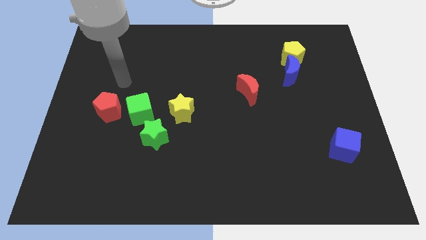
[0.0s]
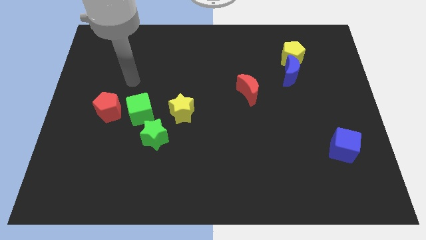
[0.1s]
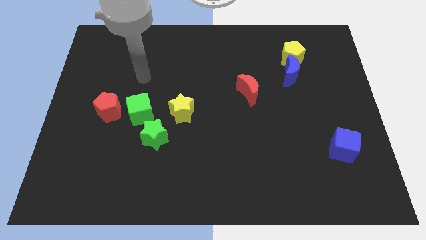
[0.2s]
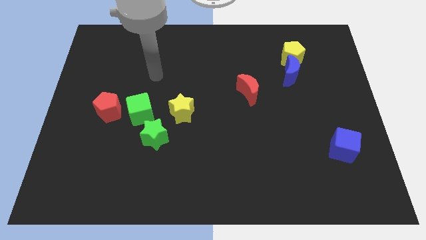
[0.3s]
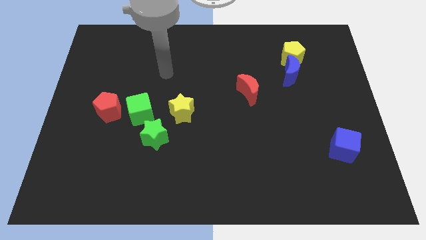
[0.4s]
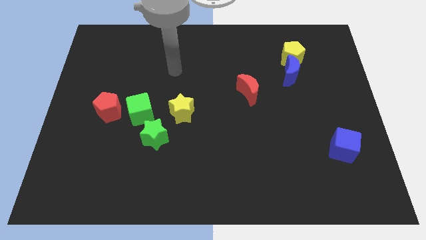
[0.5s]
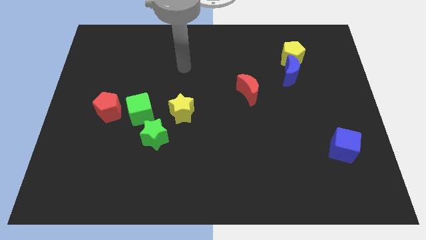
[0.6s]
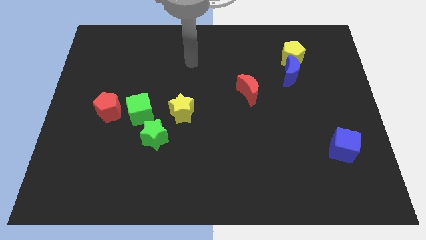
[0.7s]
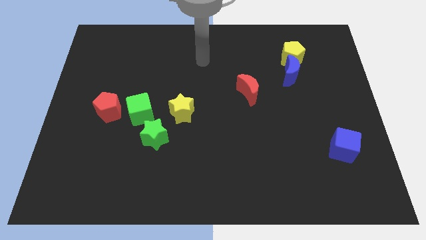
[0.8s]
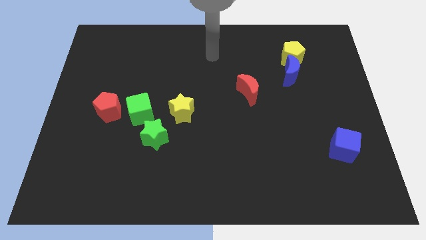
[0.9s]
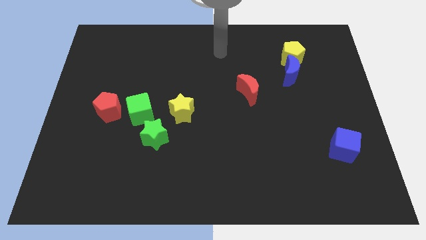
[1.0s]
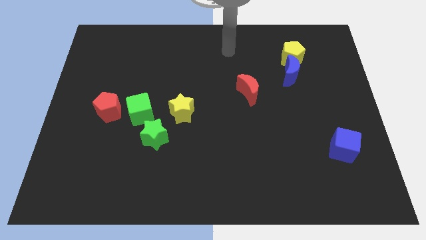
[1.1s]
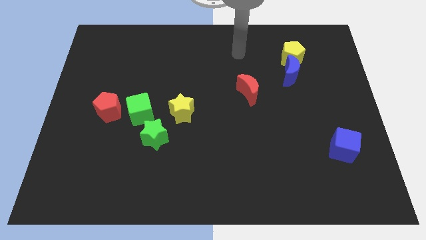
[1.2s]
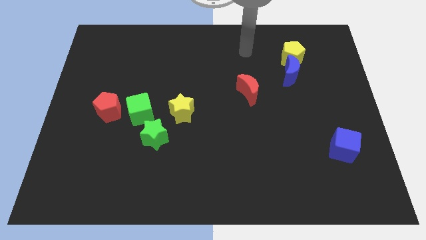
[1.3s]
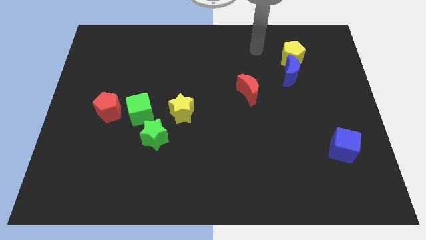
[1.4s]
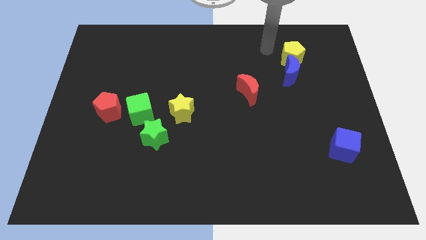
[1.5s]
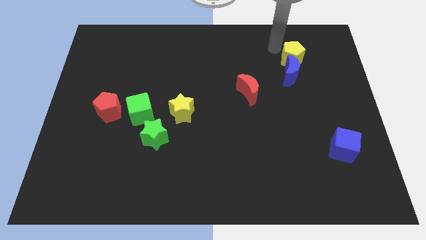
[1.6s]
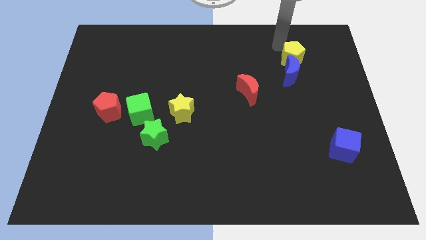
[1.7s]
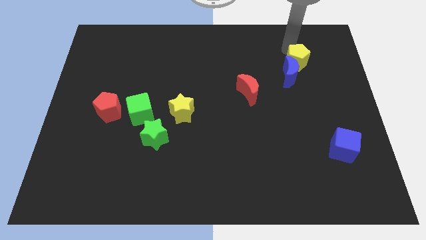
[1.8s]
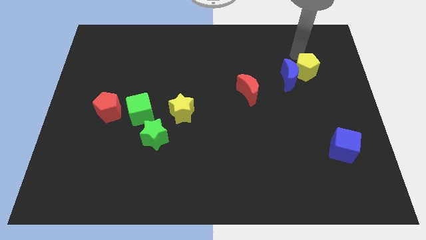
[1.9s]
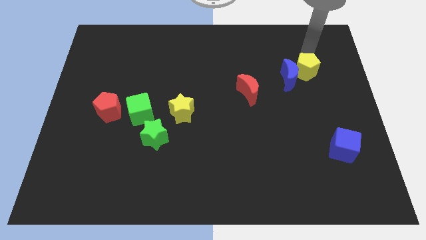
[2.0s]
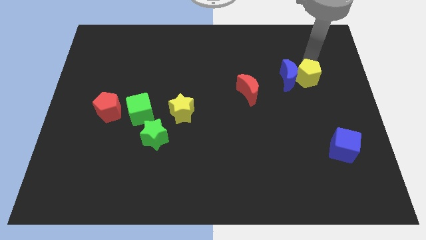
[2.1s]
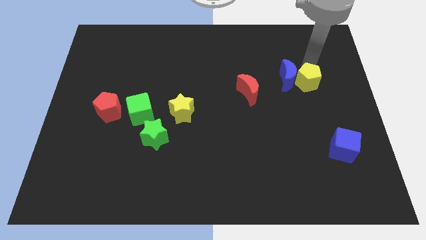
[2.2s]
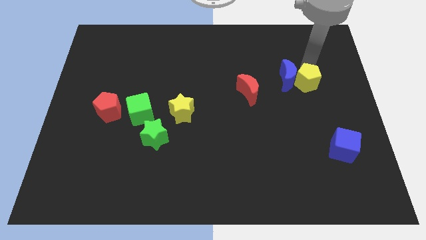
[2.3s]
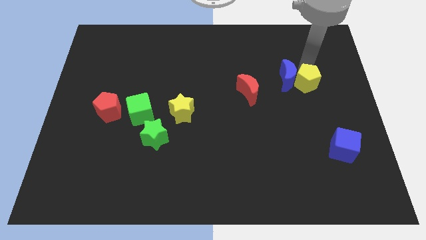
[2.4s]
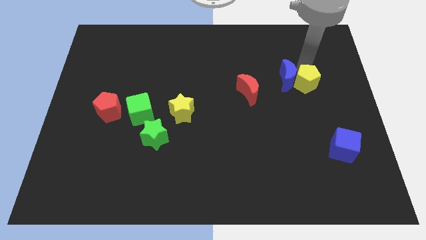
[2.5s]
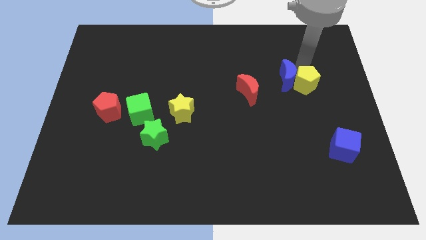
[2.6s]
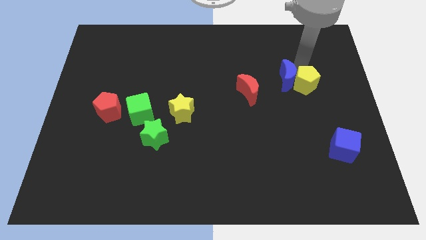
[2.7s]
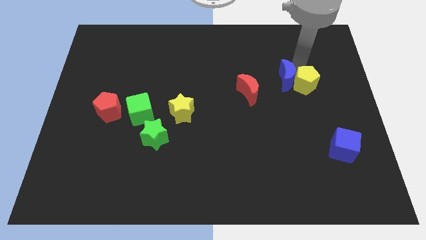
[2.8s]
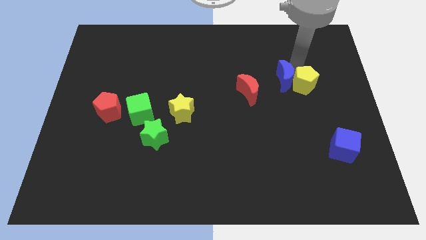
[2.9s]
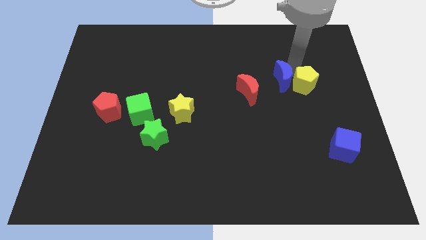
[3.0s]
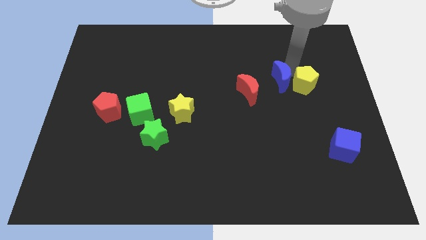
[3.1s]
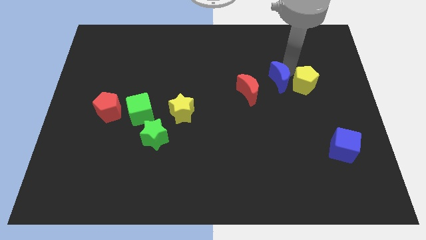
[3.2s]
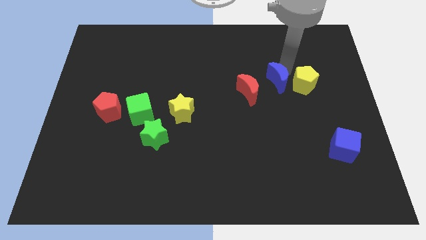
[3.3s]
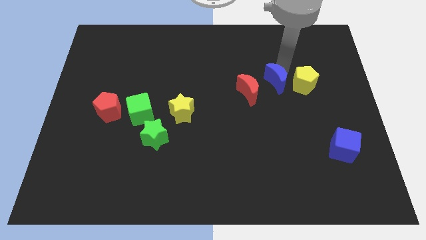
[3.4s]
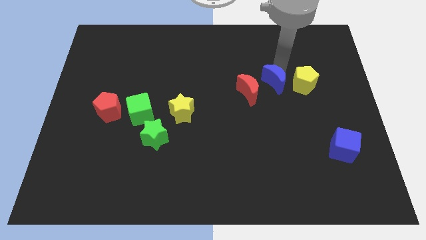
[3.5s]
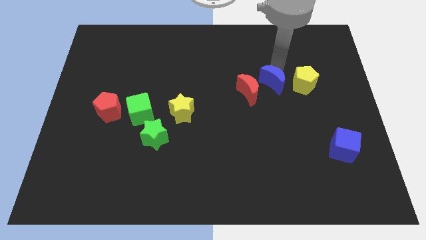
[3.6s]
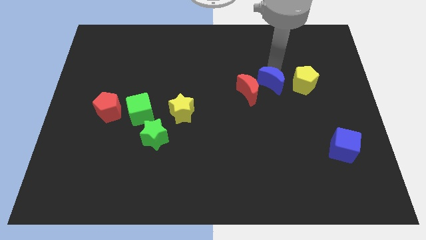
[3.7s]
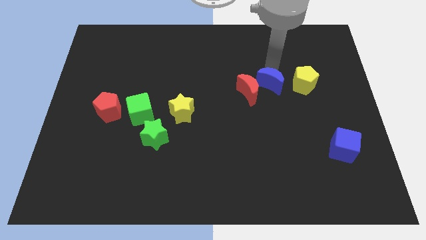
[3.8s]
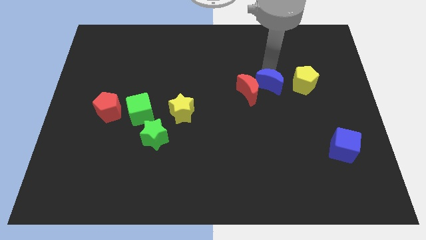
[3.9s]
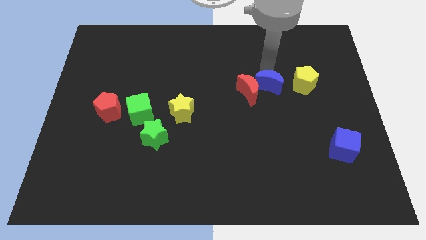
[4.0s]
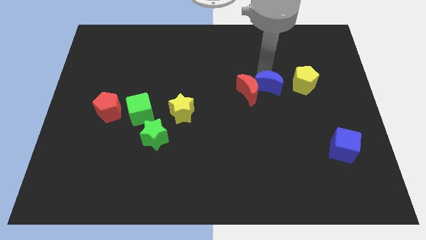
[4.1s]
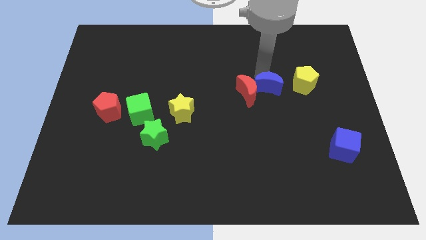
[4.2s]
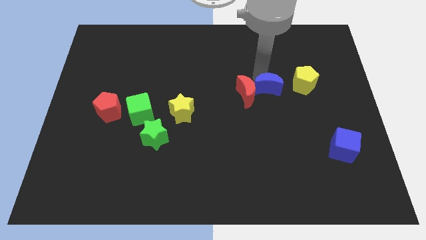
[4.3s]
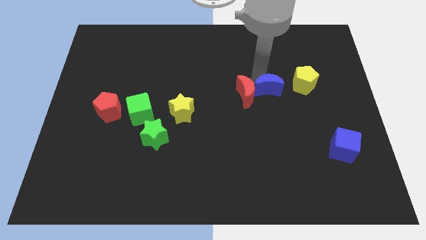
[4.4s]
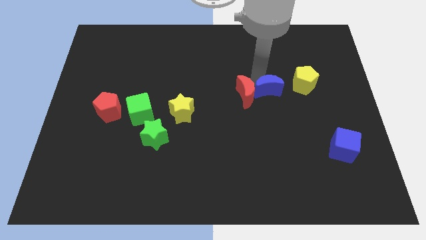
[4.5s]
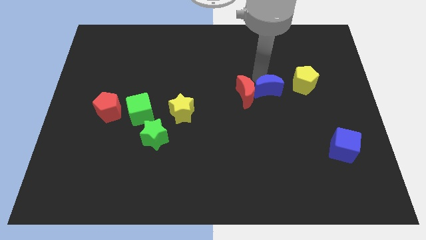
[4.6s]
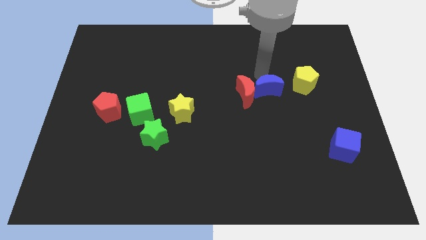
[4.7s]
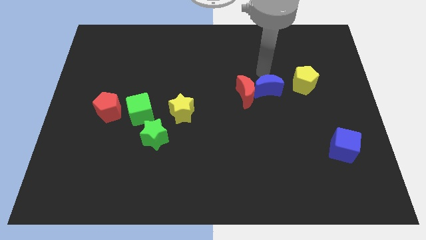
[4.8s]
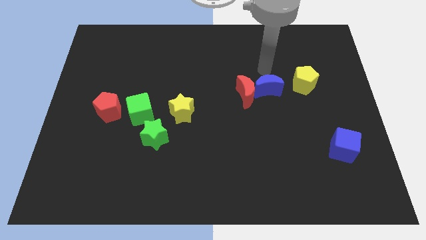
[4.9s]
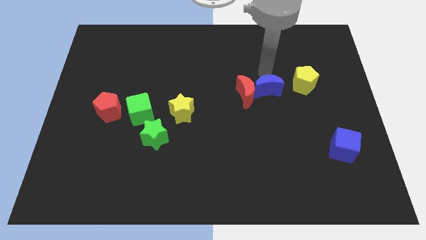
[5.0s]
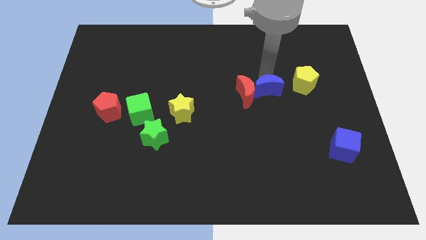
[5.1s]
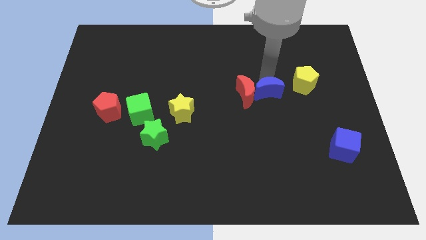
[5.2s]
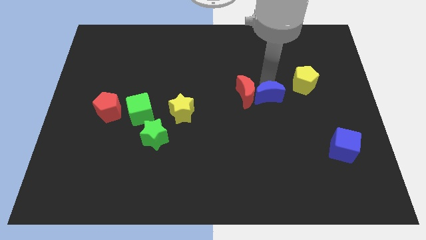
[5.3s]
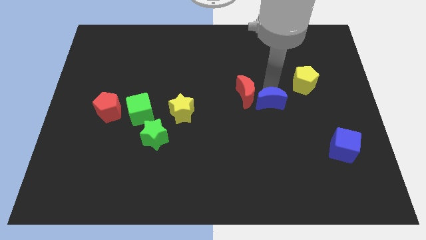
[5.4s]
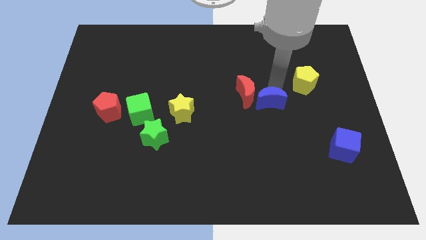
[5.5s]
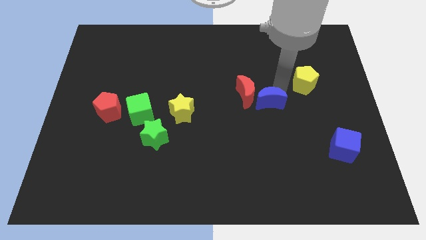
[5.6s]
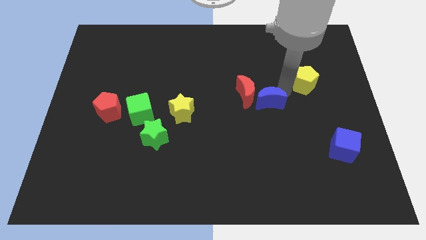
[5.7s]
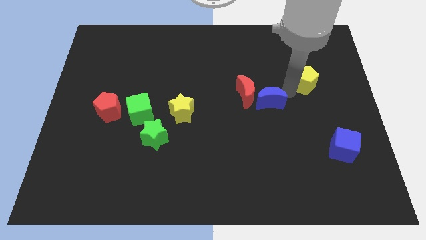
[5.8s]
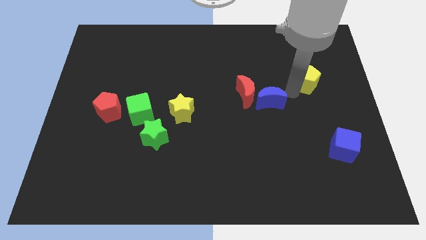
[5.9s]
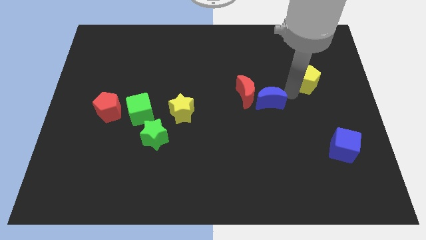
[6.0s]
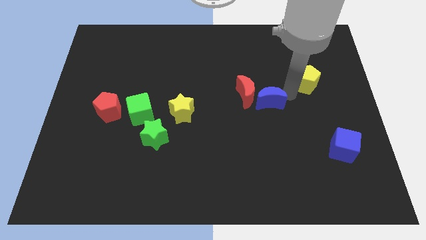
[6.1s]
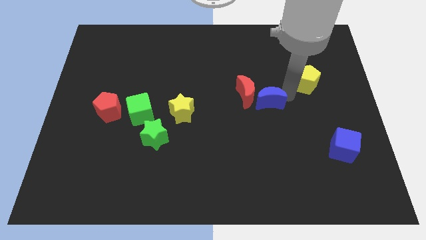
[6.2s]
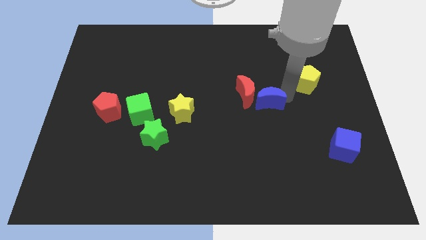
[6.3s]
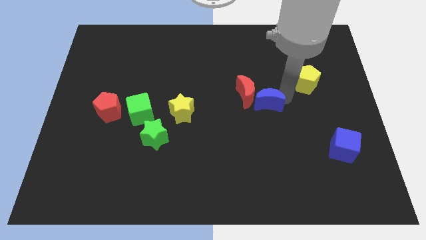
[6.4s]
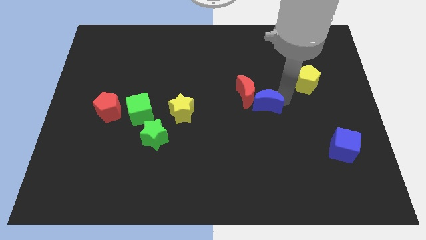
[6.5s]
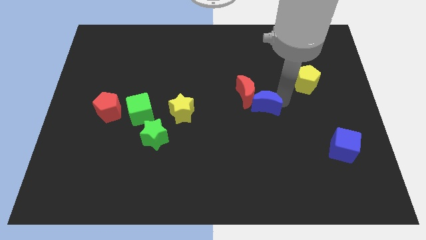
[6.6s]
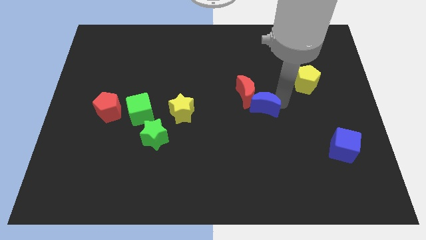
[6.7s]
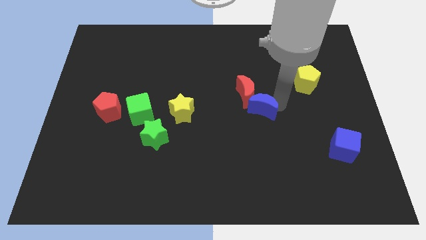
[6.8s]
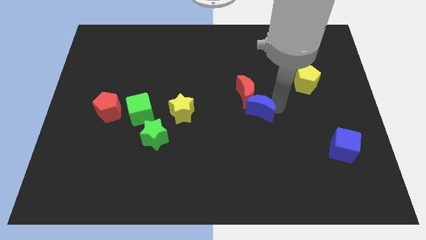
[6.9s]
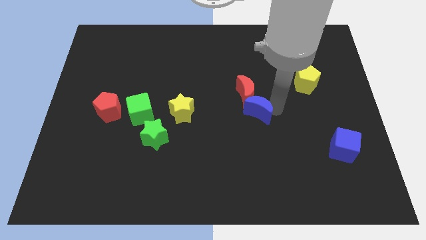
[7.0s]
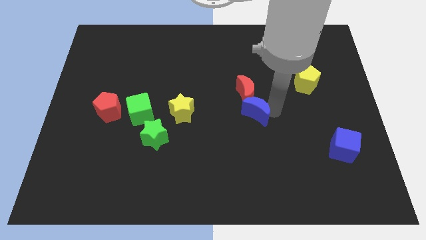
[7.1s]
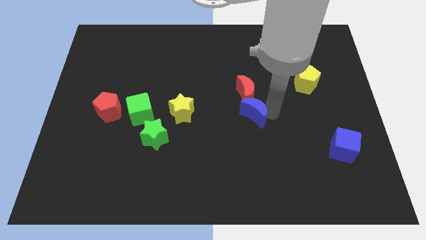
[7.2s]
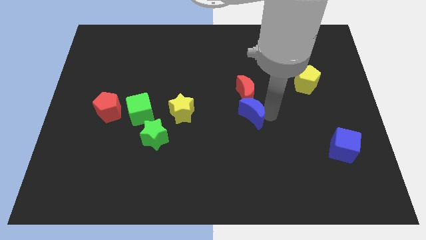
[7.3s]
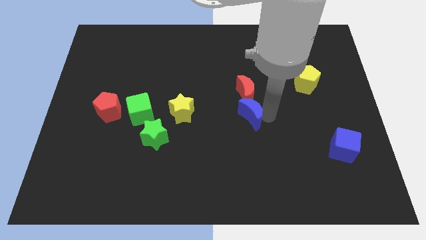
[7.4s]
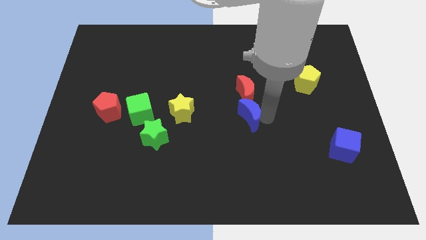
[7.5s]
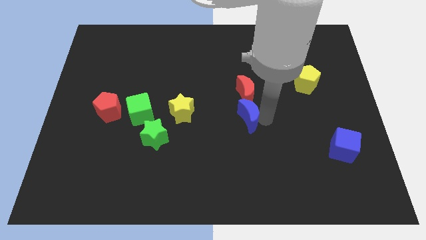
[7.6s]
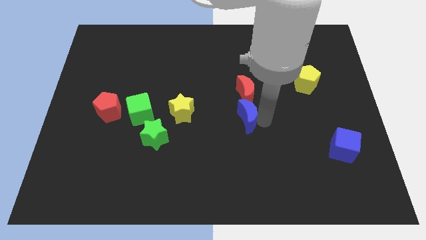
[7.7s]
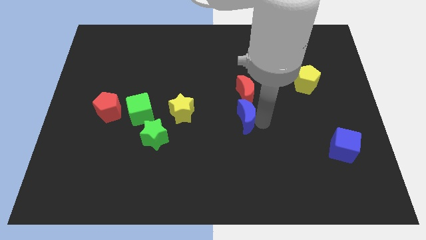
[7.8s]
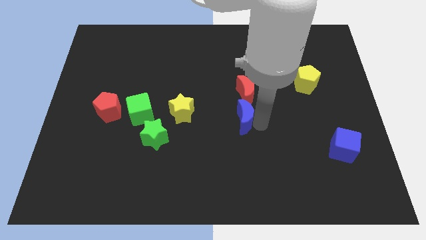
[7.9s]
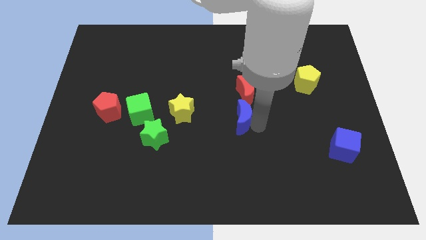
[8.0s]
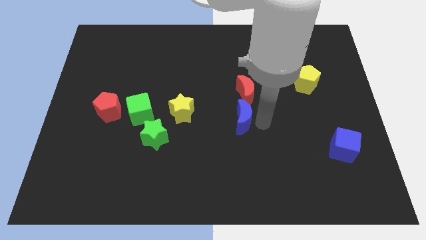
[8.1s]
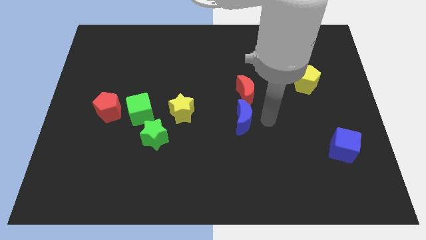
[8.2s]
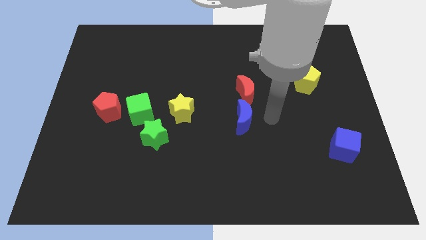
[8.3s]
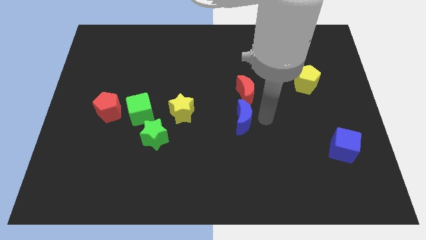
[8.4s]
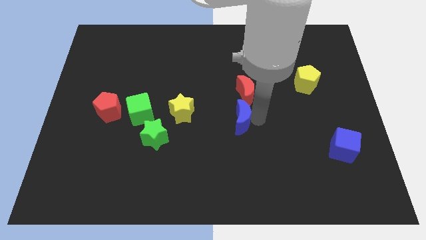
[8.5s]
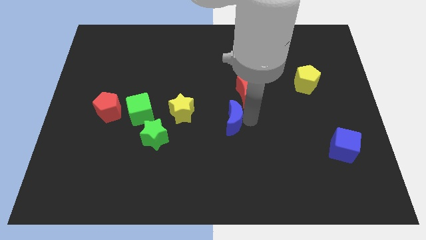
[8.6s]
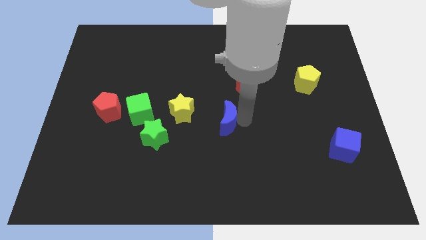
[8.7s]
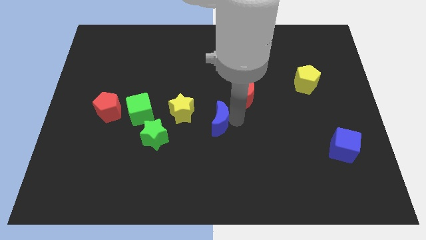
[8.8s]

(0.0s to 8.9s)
slide the blue moon diagonally down and to the right of the yellow star
